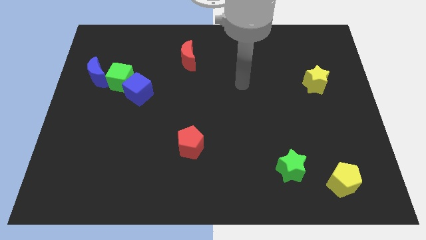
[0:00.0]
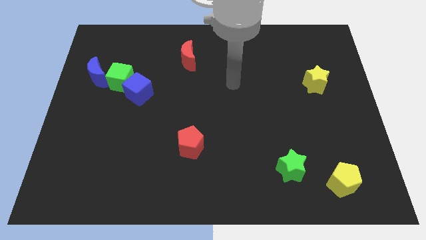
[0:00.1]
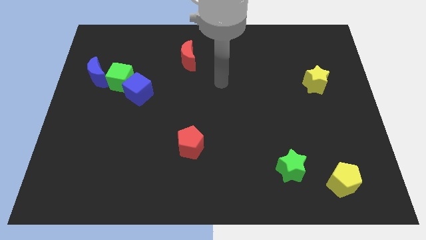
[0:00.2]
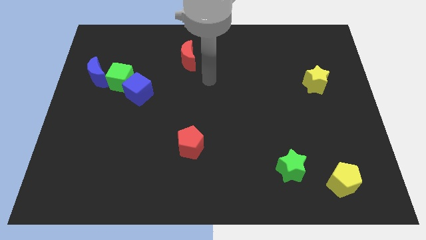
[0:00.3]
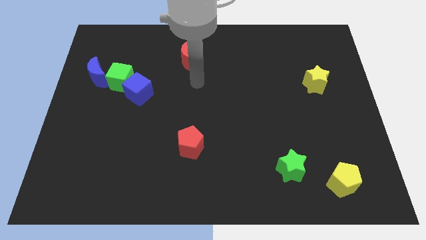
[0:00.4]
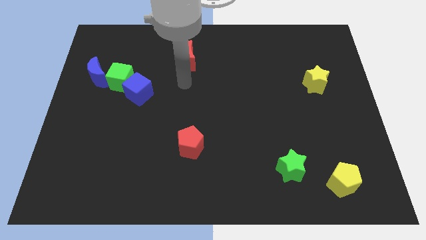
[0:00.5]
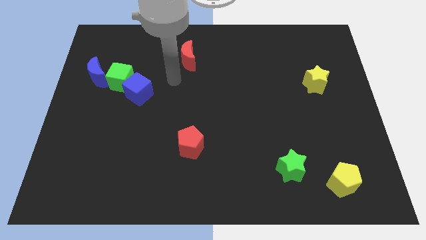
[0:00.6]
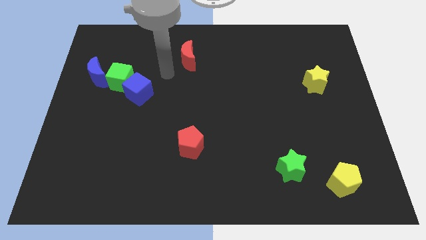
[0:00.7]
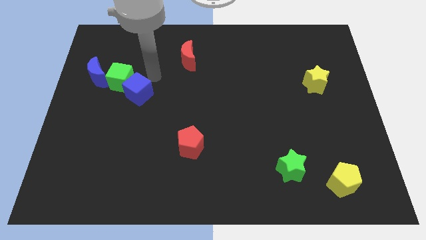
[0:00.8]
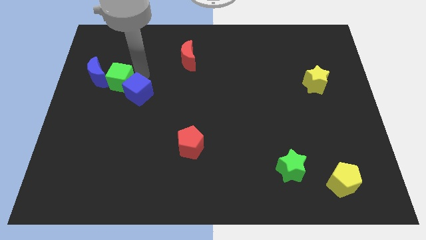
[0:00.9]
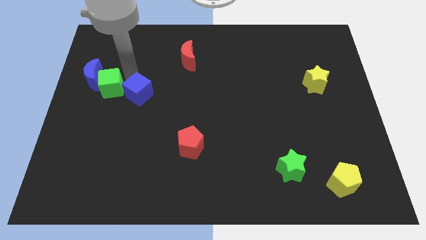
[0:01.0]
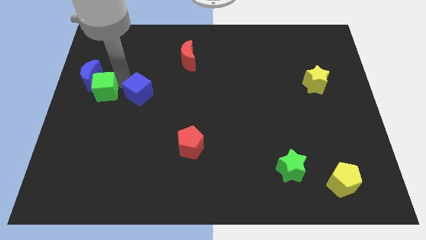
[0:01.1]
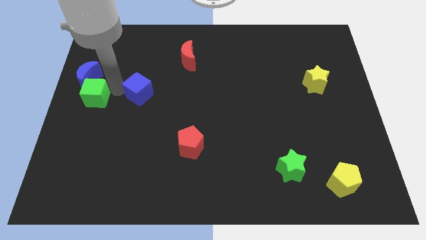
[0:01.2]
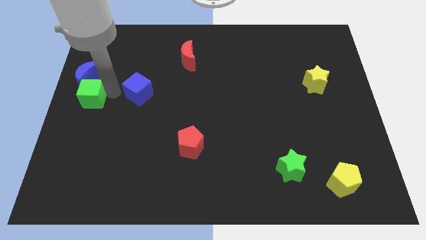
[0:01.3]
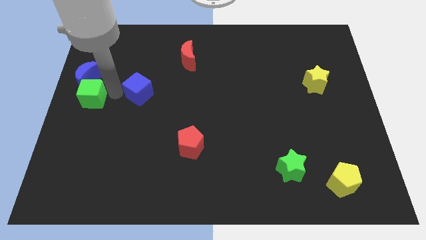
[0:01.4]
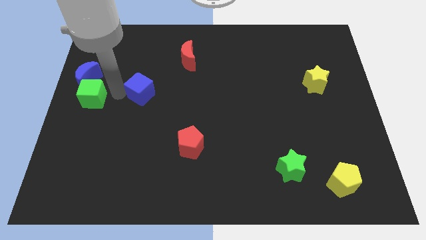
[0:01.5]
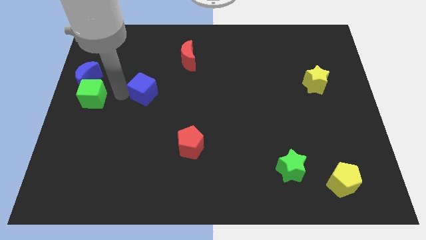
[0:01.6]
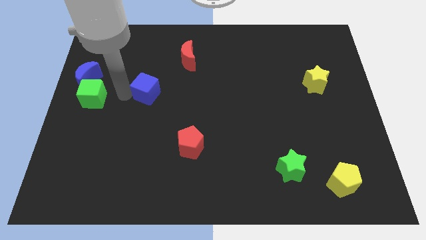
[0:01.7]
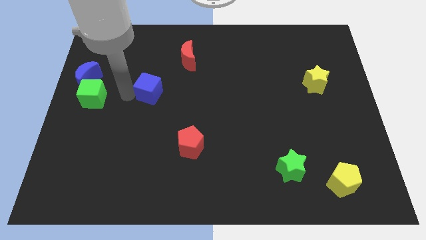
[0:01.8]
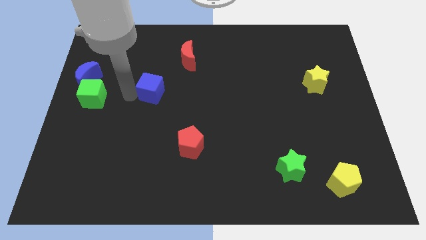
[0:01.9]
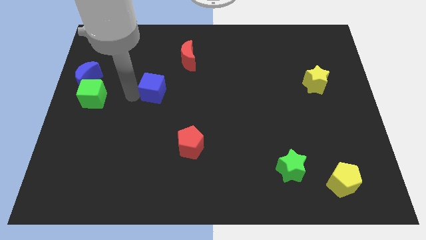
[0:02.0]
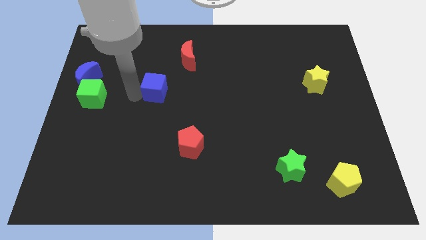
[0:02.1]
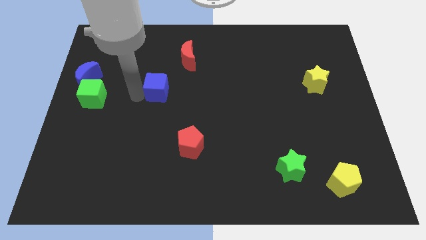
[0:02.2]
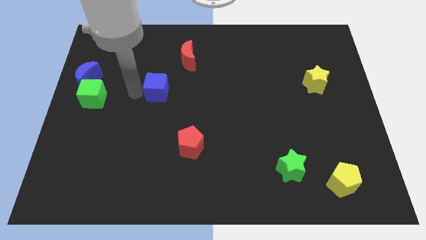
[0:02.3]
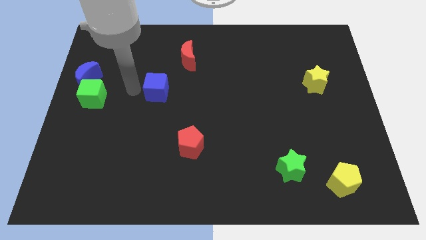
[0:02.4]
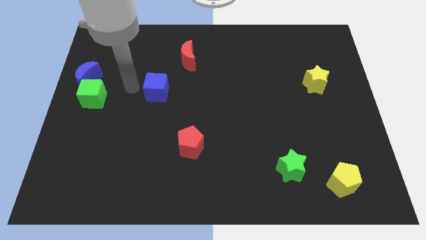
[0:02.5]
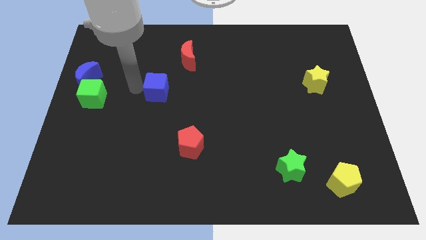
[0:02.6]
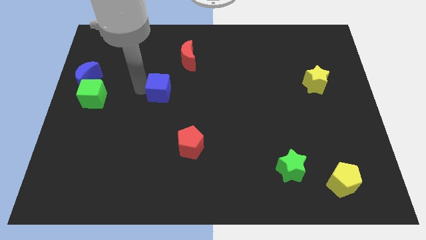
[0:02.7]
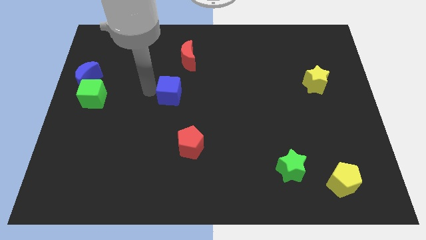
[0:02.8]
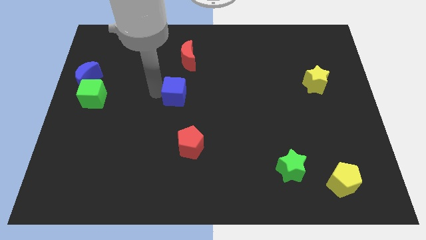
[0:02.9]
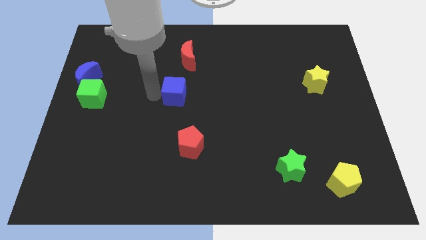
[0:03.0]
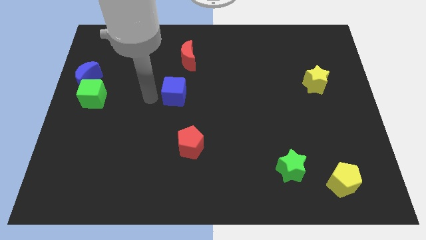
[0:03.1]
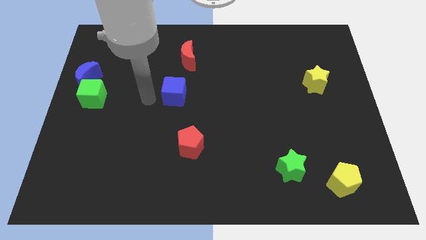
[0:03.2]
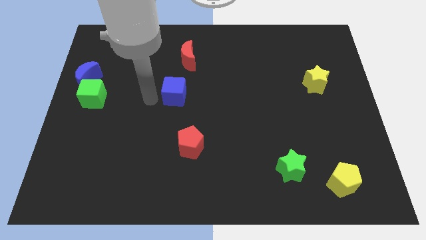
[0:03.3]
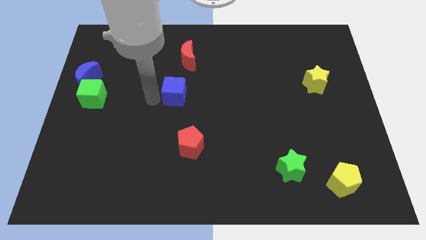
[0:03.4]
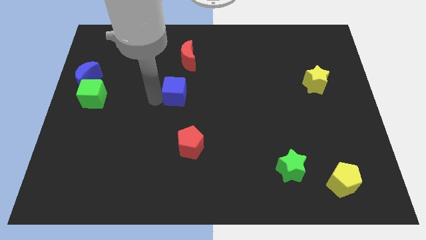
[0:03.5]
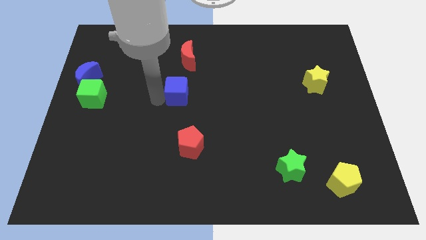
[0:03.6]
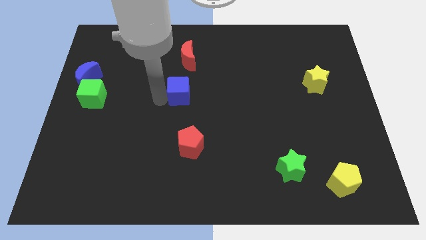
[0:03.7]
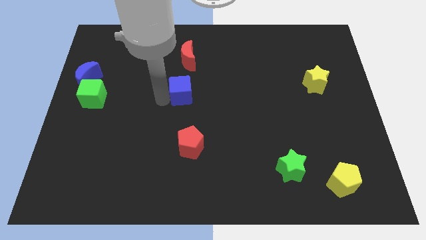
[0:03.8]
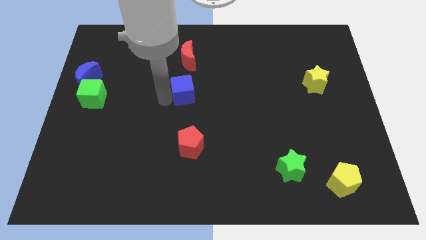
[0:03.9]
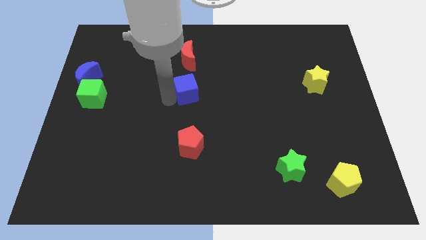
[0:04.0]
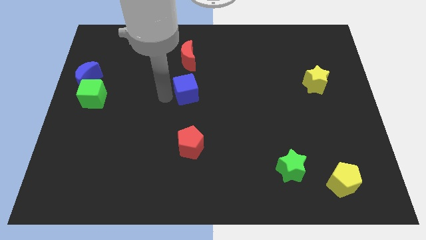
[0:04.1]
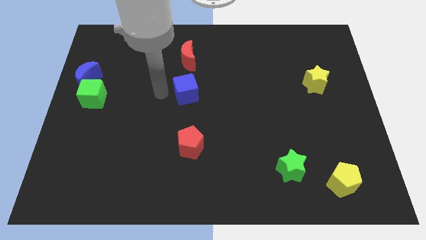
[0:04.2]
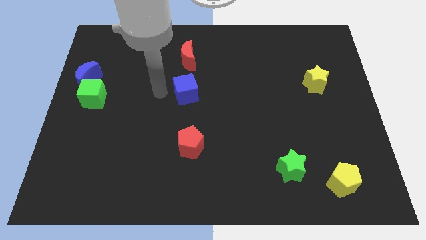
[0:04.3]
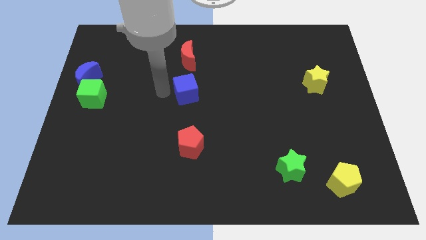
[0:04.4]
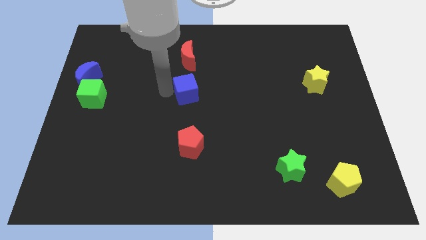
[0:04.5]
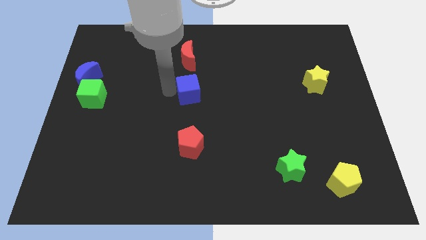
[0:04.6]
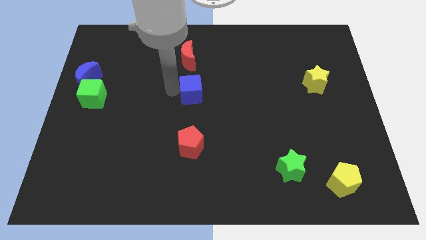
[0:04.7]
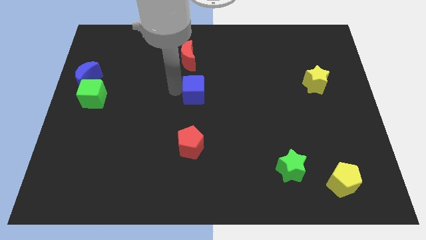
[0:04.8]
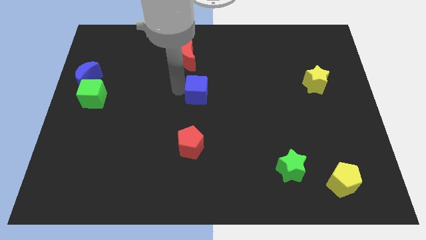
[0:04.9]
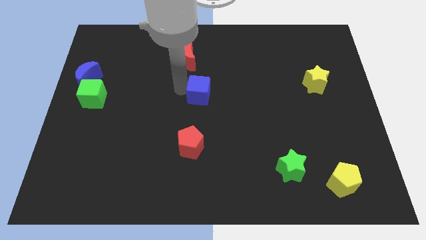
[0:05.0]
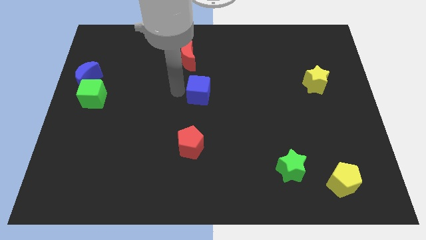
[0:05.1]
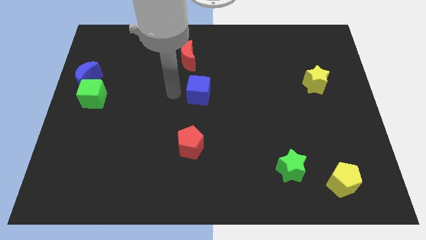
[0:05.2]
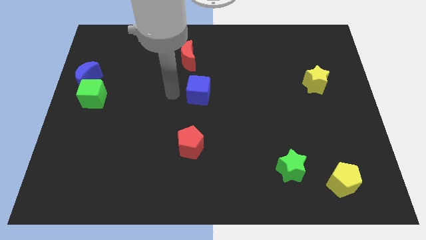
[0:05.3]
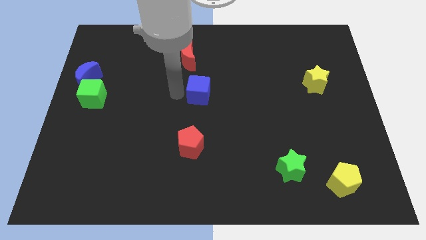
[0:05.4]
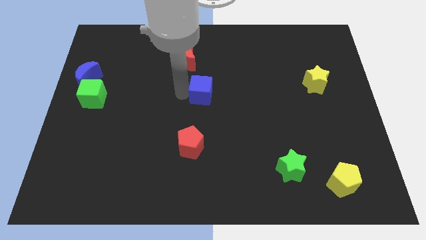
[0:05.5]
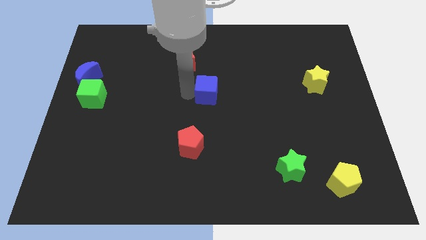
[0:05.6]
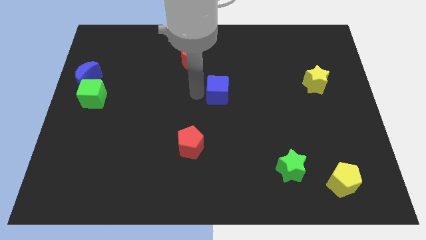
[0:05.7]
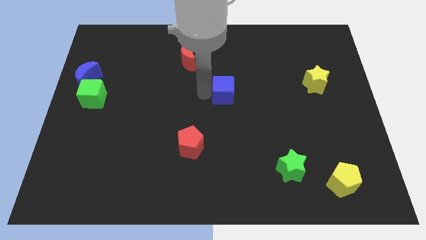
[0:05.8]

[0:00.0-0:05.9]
move the blue cube to the right

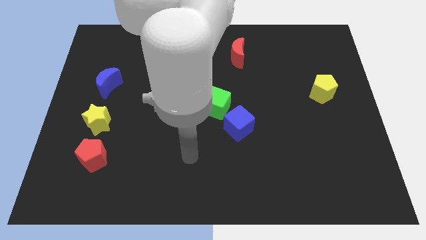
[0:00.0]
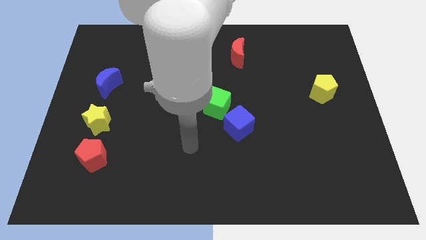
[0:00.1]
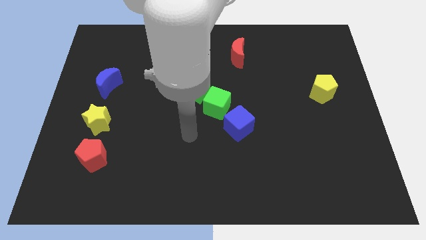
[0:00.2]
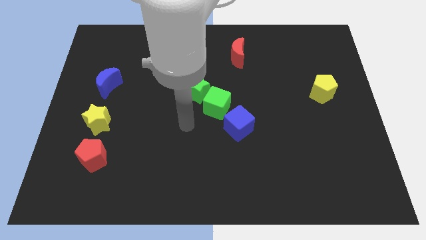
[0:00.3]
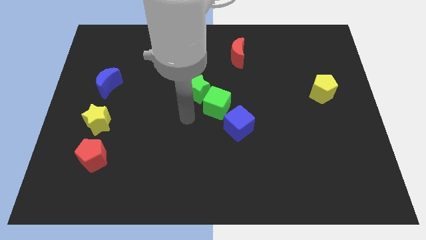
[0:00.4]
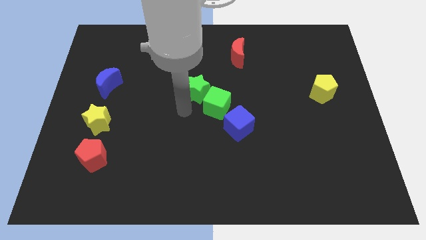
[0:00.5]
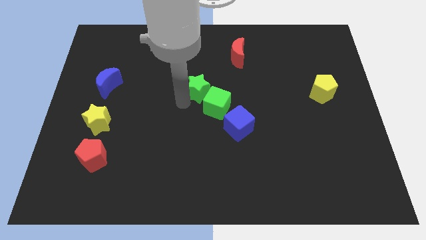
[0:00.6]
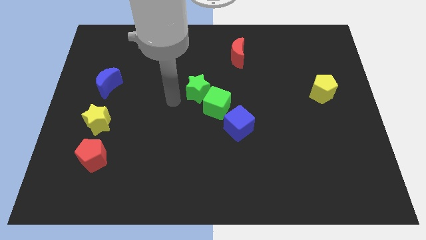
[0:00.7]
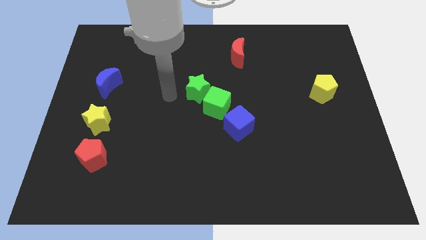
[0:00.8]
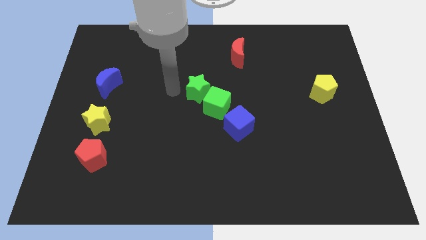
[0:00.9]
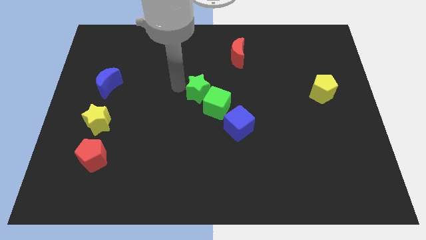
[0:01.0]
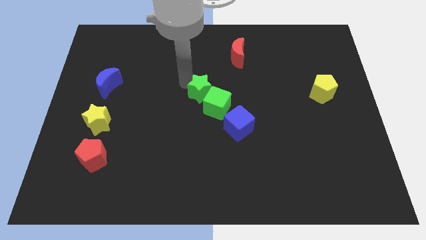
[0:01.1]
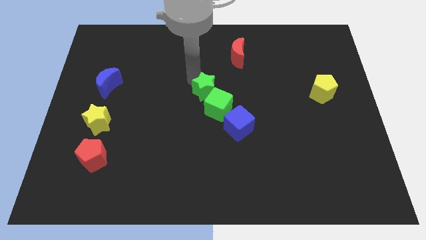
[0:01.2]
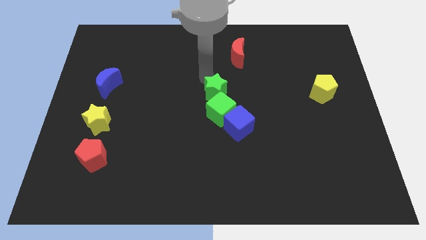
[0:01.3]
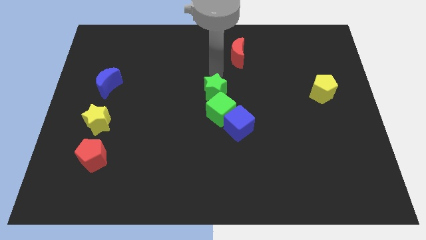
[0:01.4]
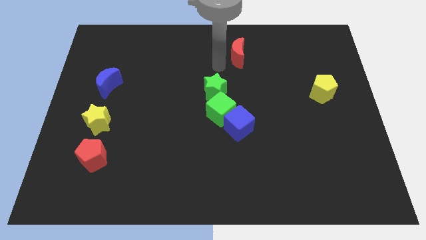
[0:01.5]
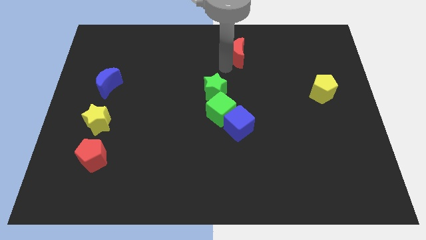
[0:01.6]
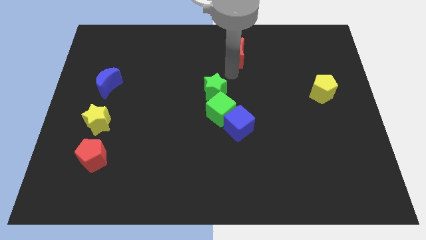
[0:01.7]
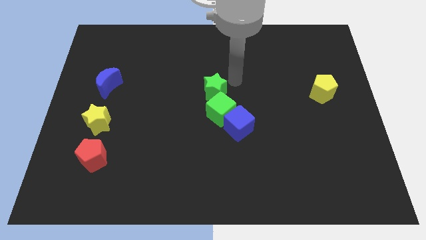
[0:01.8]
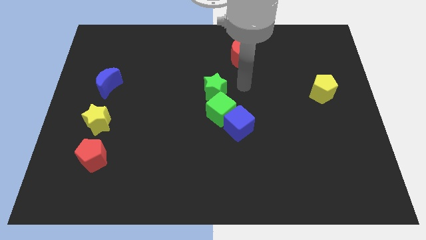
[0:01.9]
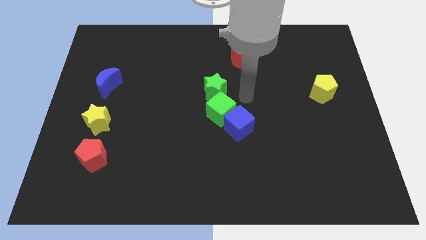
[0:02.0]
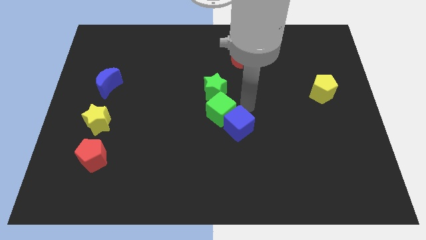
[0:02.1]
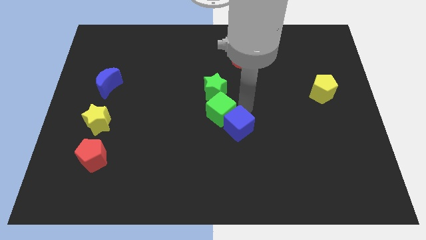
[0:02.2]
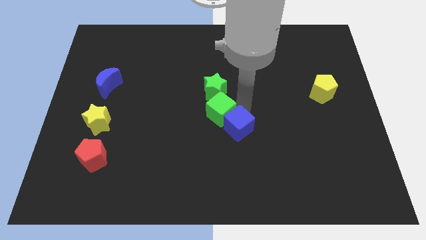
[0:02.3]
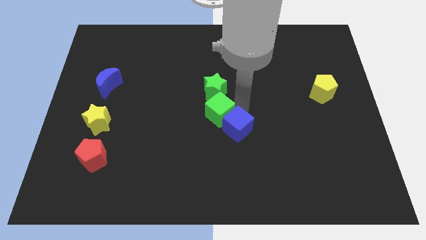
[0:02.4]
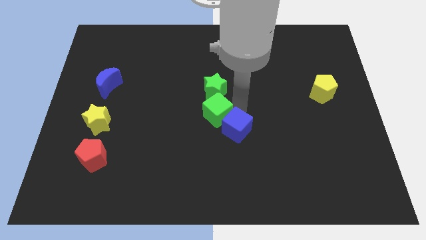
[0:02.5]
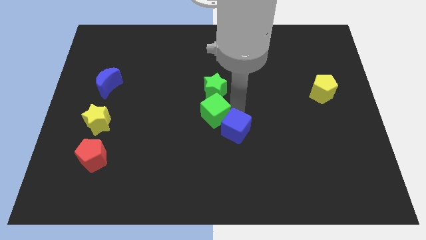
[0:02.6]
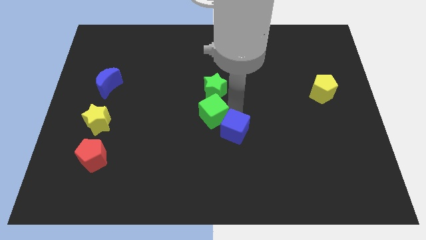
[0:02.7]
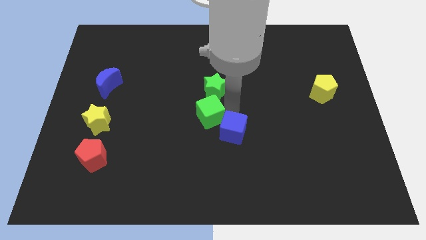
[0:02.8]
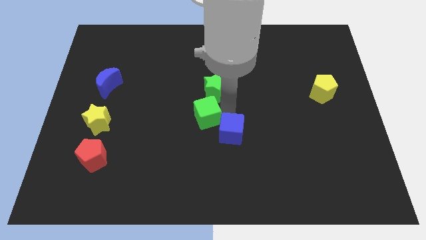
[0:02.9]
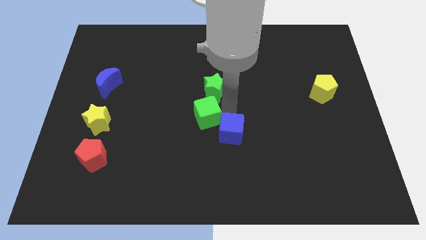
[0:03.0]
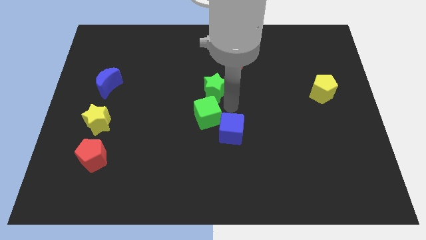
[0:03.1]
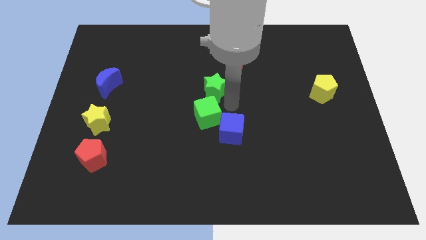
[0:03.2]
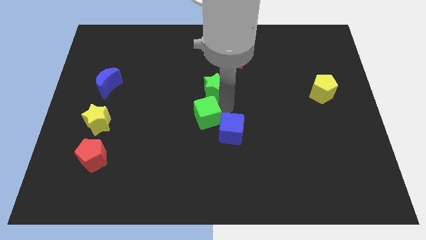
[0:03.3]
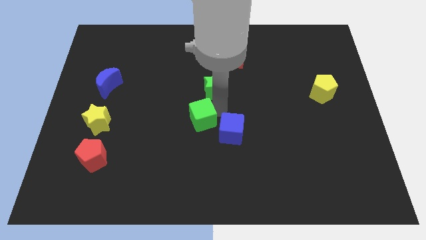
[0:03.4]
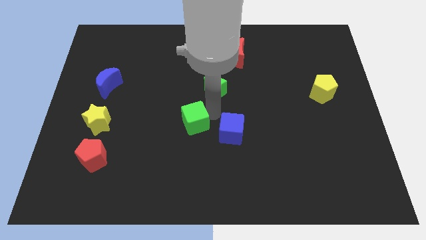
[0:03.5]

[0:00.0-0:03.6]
move the green cube diagonally downwards and to the left somewhat
